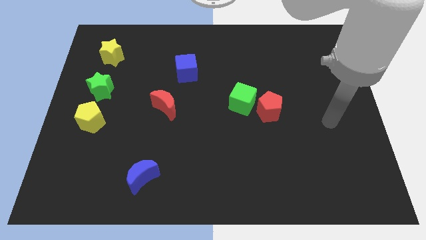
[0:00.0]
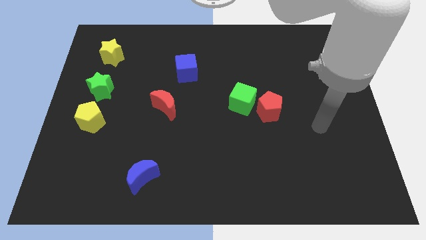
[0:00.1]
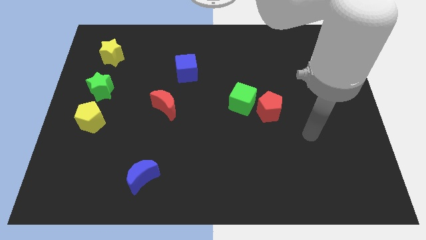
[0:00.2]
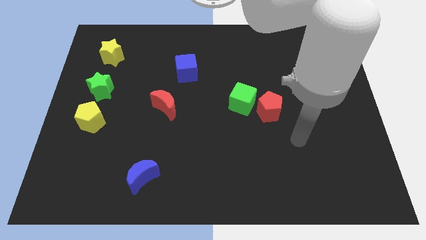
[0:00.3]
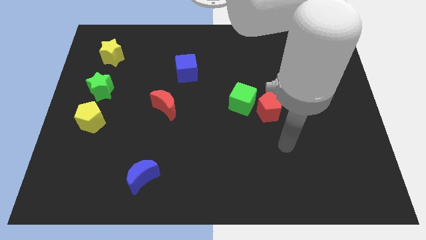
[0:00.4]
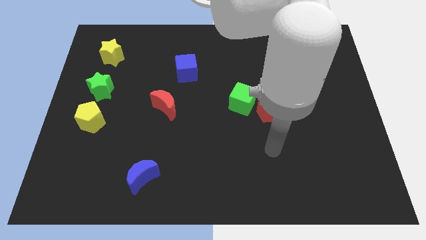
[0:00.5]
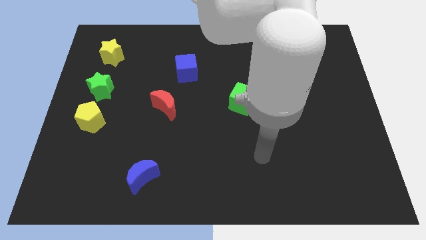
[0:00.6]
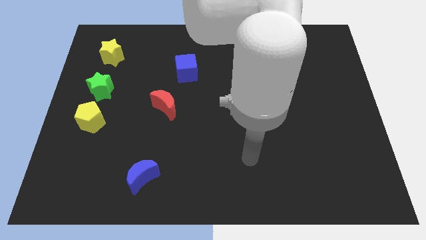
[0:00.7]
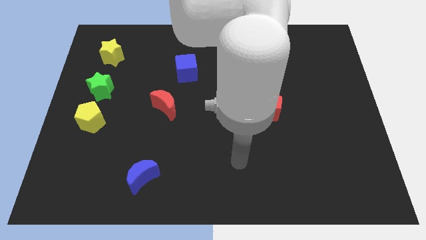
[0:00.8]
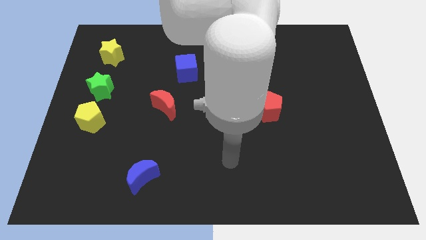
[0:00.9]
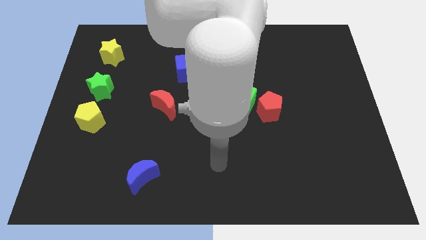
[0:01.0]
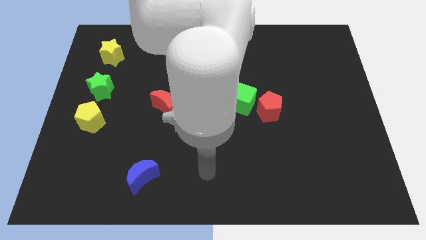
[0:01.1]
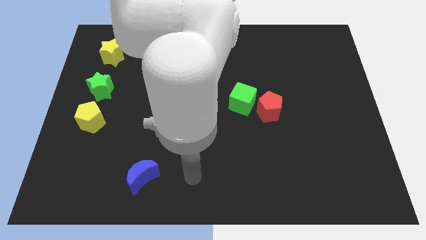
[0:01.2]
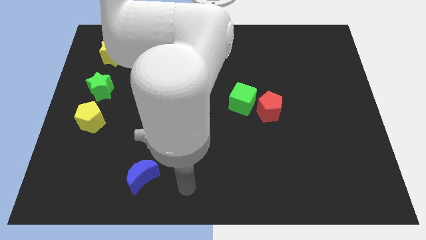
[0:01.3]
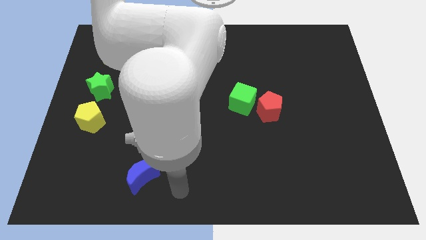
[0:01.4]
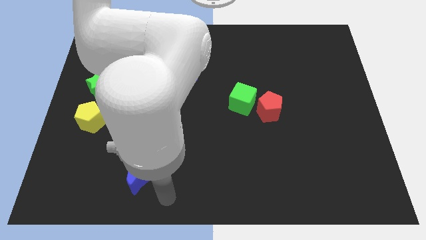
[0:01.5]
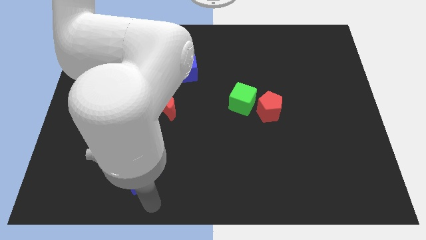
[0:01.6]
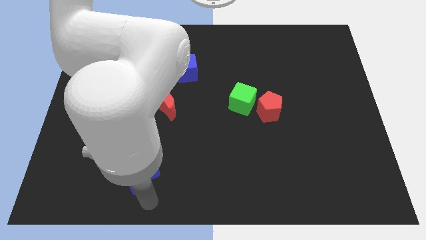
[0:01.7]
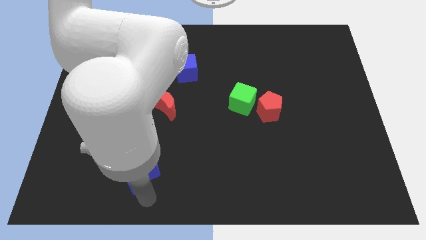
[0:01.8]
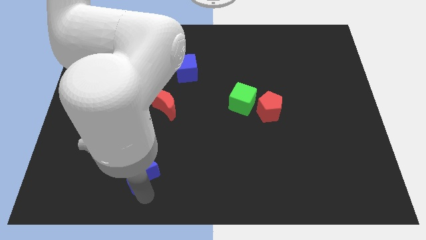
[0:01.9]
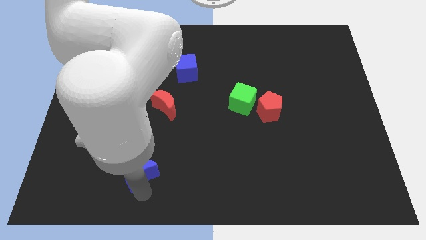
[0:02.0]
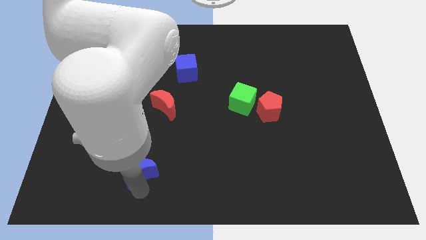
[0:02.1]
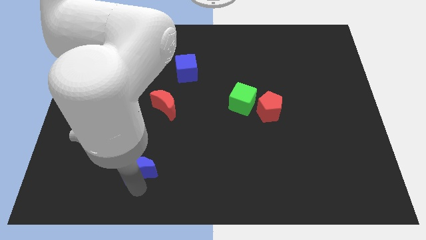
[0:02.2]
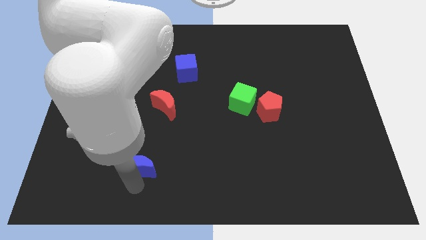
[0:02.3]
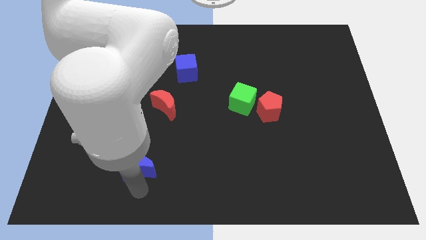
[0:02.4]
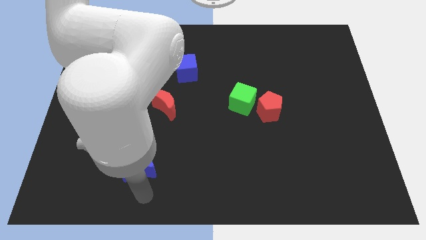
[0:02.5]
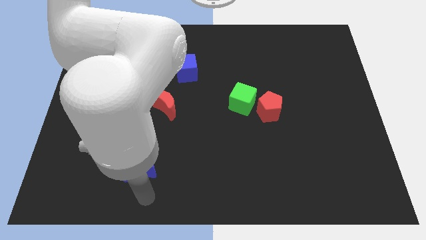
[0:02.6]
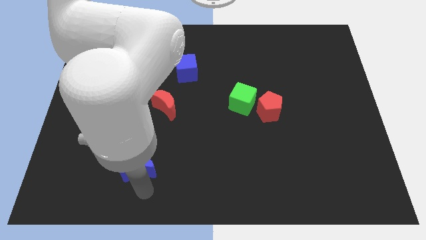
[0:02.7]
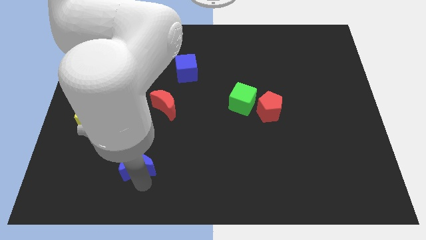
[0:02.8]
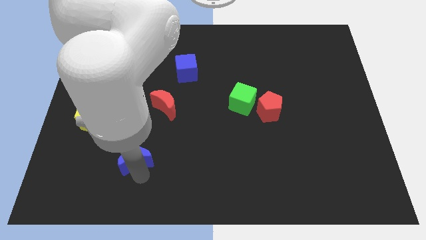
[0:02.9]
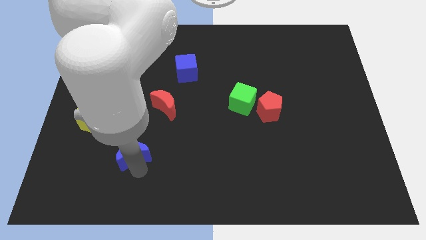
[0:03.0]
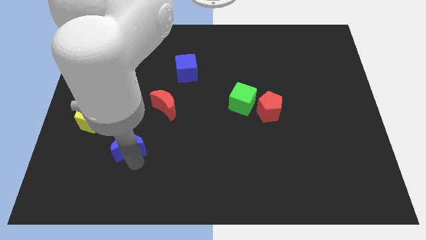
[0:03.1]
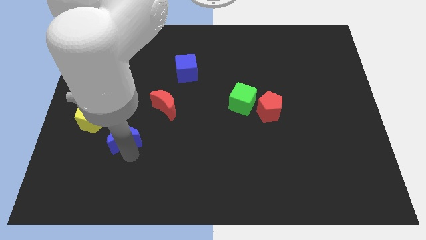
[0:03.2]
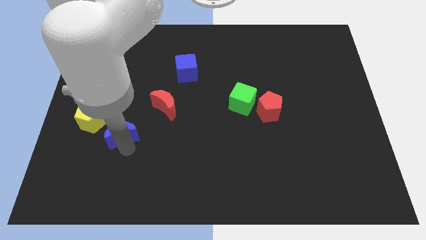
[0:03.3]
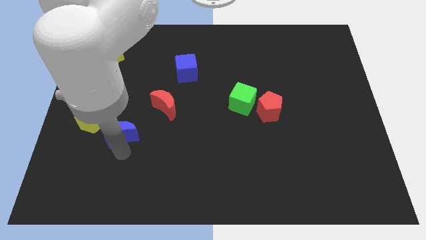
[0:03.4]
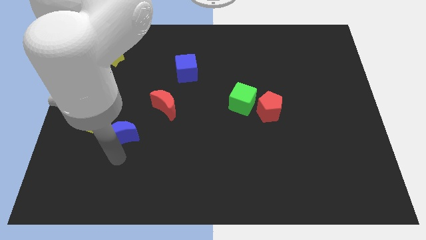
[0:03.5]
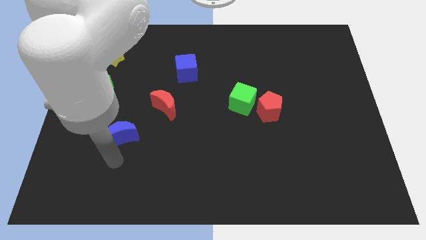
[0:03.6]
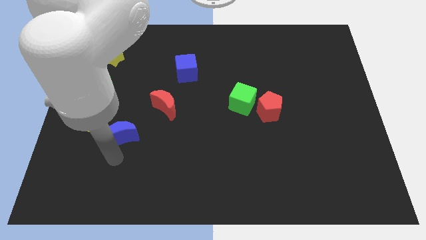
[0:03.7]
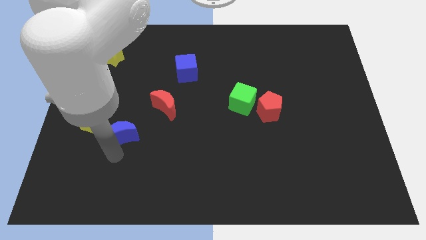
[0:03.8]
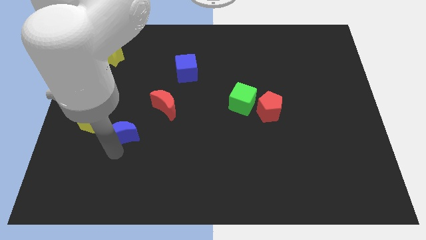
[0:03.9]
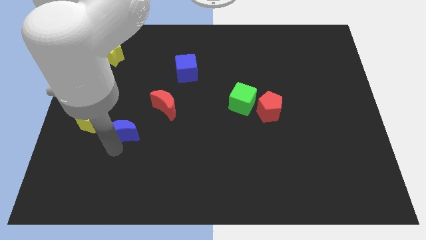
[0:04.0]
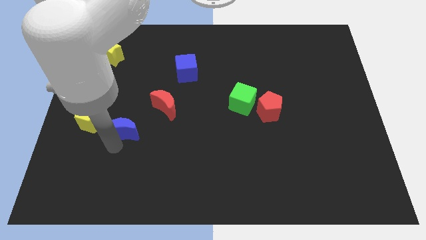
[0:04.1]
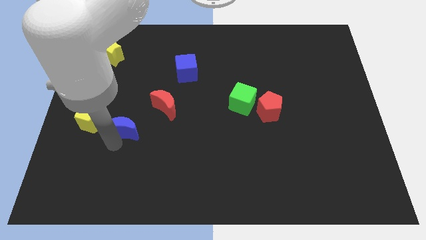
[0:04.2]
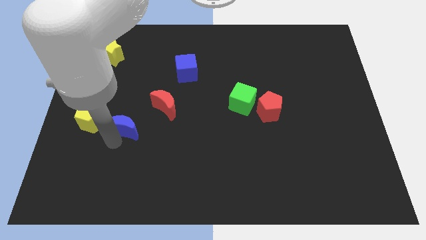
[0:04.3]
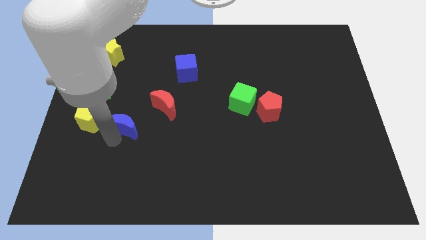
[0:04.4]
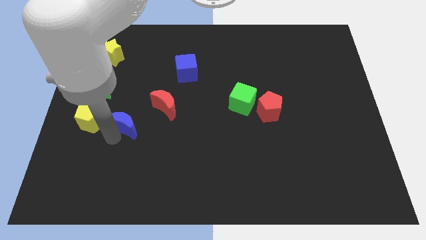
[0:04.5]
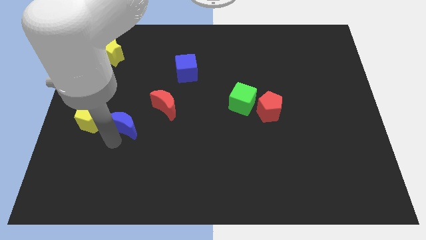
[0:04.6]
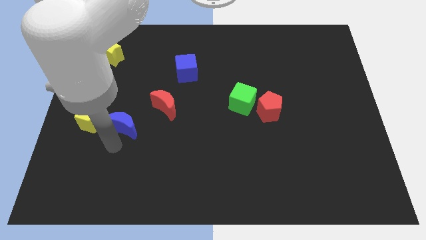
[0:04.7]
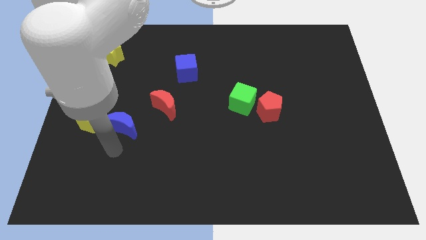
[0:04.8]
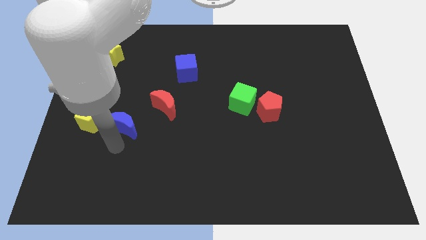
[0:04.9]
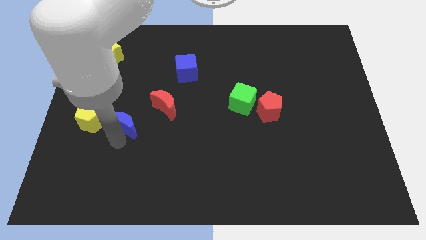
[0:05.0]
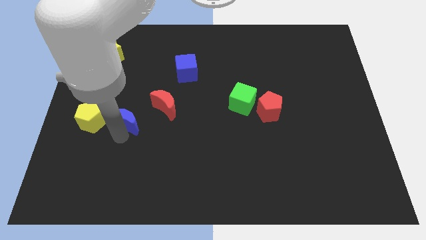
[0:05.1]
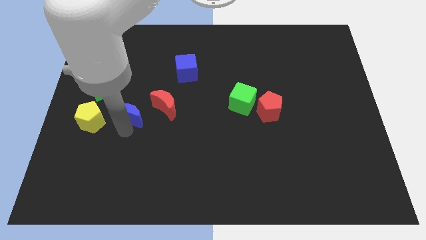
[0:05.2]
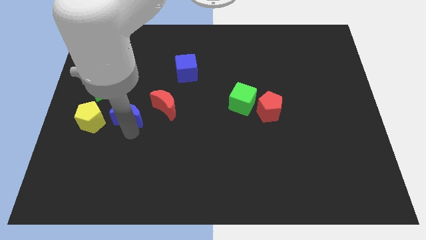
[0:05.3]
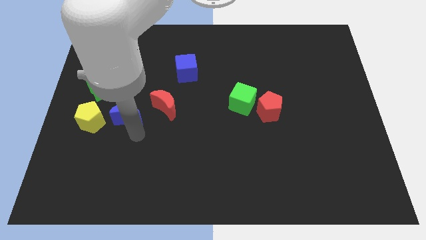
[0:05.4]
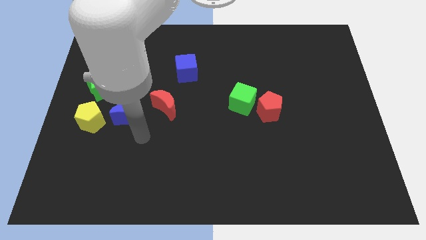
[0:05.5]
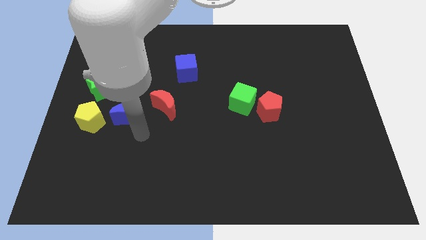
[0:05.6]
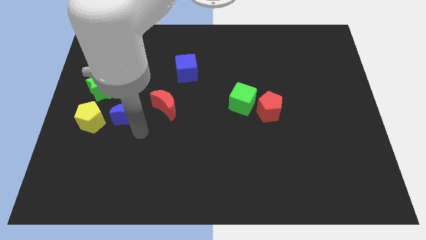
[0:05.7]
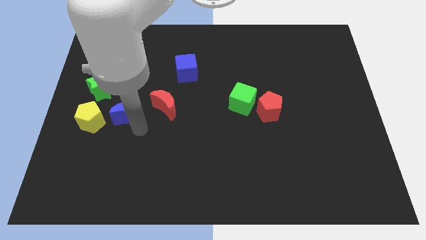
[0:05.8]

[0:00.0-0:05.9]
put the blue moon diagonally up and to the right of the yellow pentagon

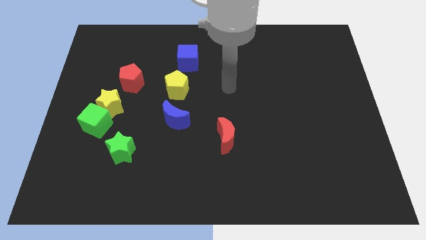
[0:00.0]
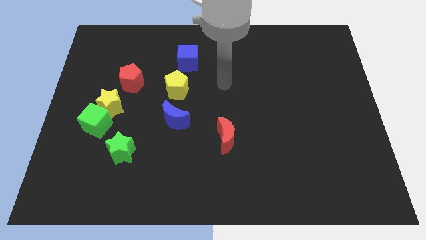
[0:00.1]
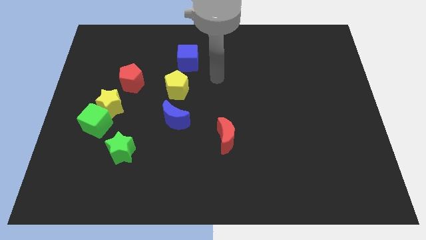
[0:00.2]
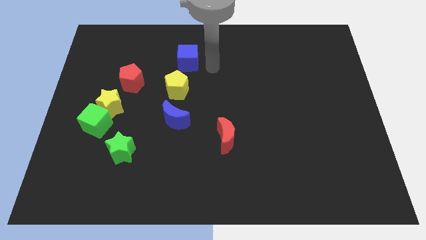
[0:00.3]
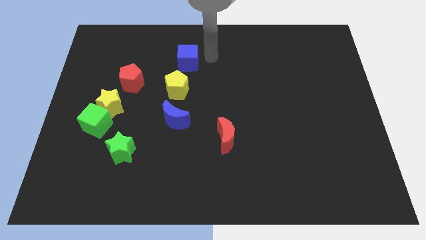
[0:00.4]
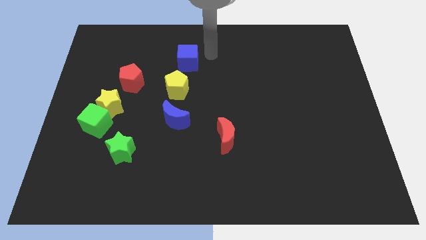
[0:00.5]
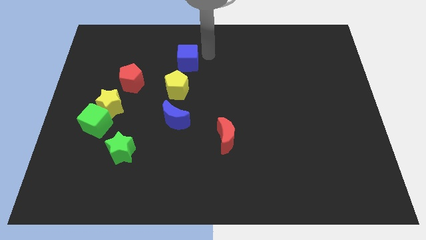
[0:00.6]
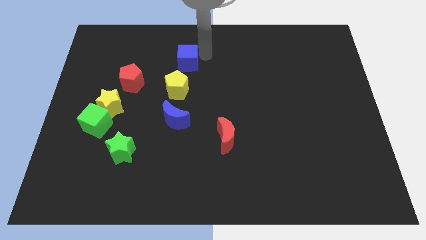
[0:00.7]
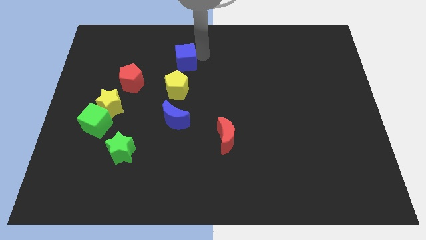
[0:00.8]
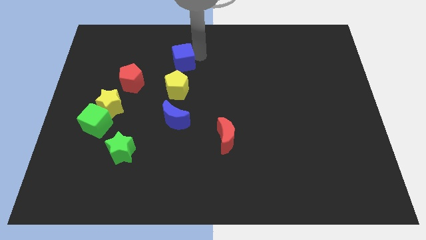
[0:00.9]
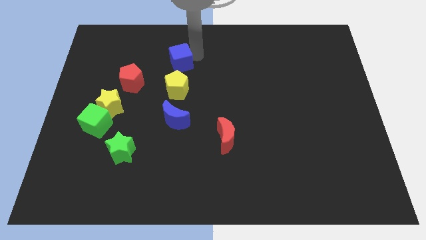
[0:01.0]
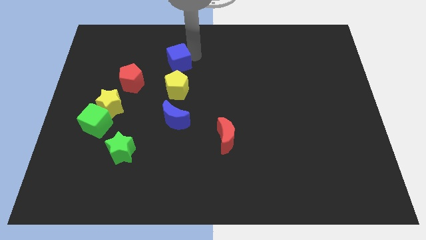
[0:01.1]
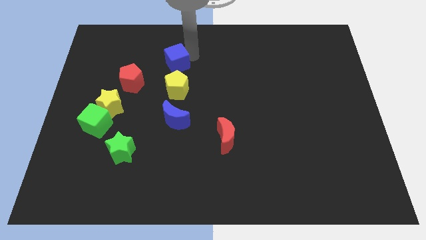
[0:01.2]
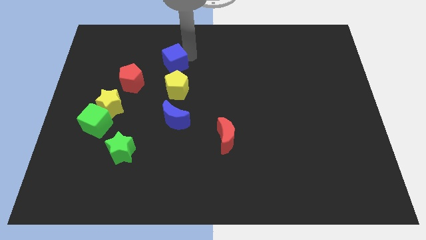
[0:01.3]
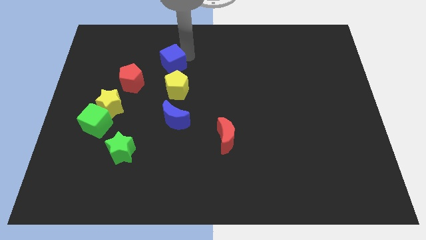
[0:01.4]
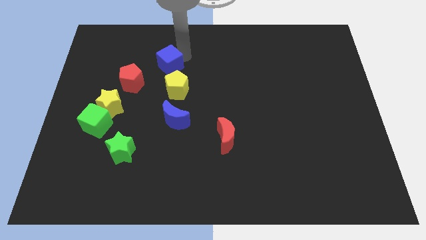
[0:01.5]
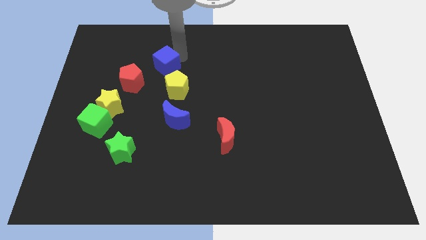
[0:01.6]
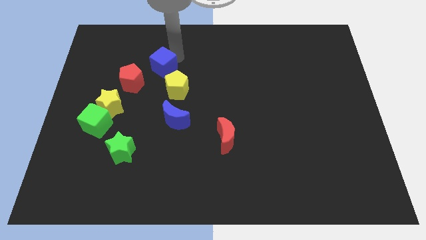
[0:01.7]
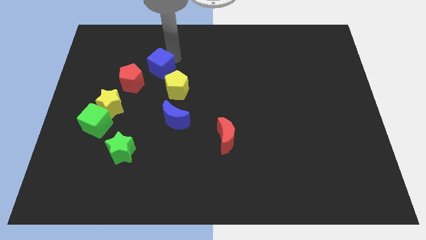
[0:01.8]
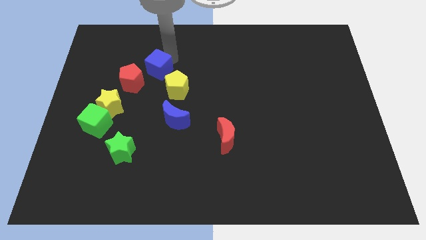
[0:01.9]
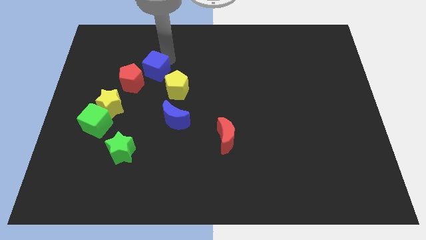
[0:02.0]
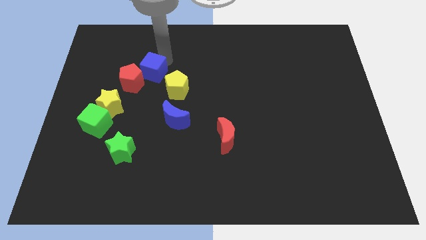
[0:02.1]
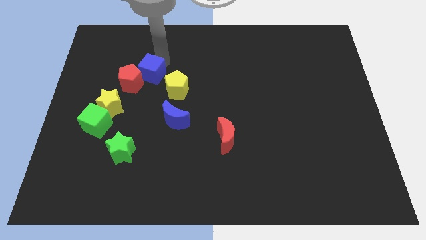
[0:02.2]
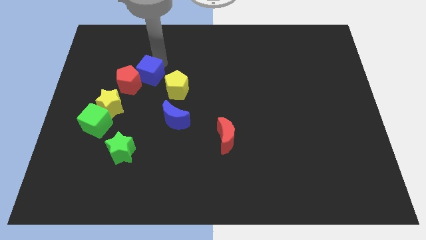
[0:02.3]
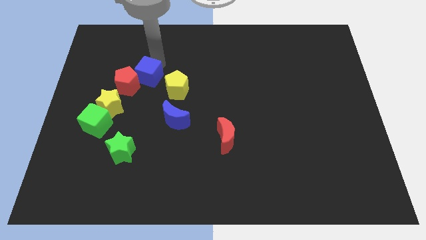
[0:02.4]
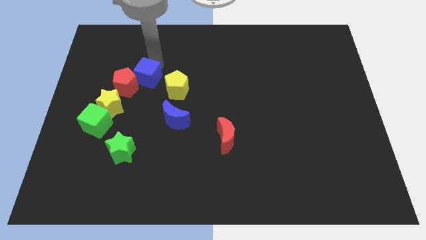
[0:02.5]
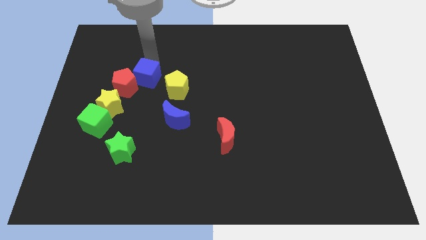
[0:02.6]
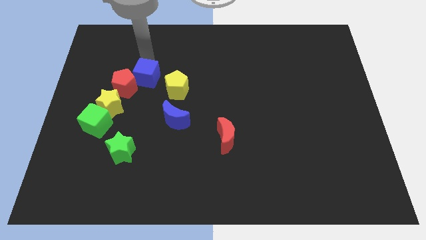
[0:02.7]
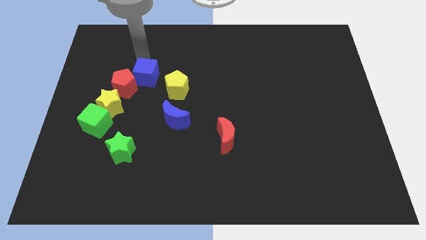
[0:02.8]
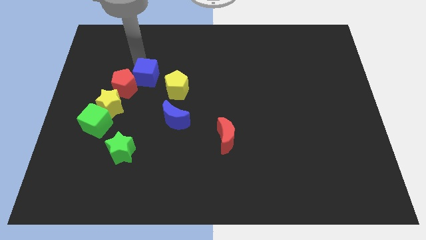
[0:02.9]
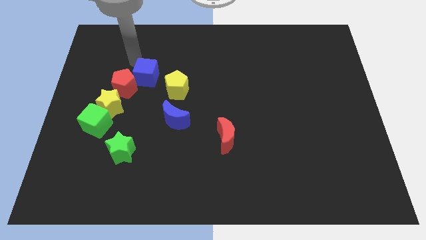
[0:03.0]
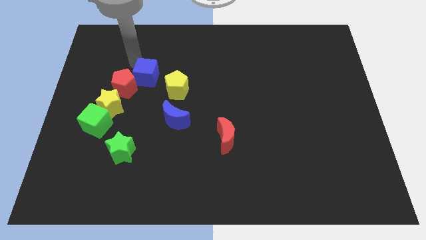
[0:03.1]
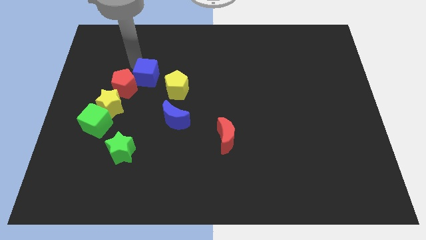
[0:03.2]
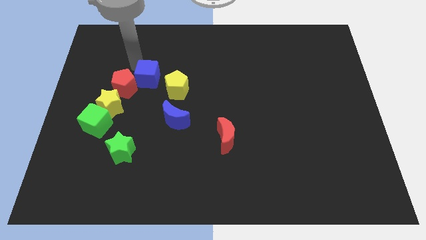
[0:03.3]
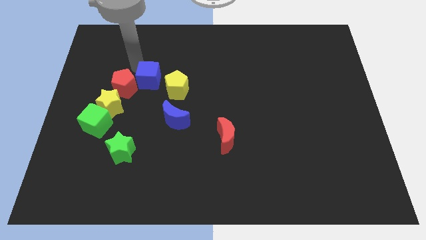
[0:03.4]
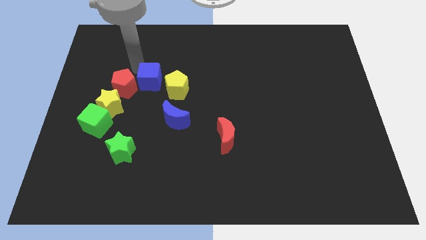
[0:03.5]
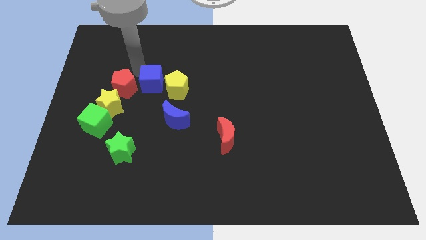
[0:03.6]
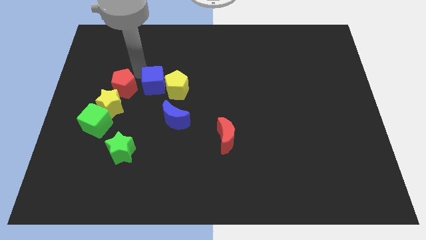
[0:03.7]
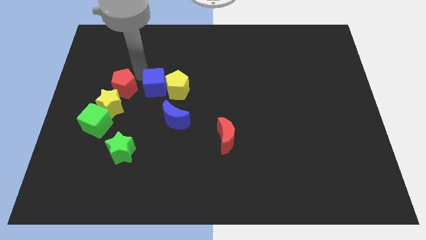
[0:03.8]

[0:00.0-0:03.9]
move the blue cube to the bottom left of the yellow pentagon
